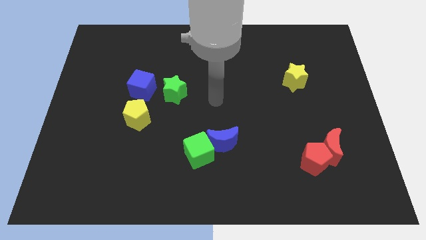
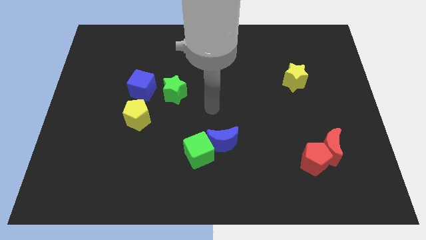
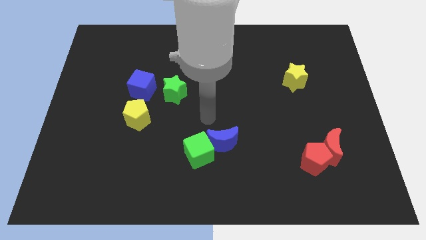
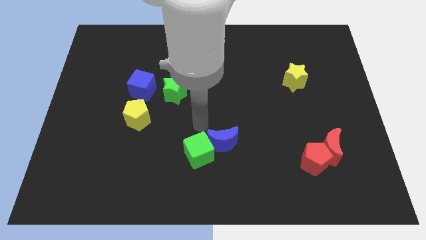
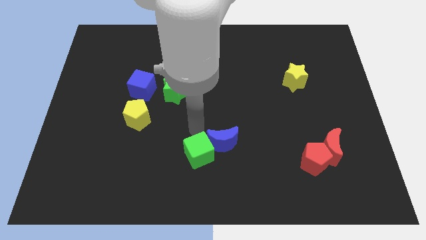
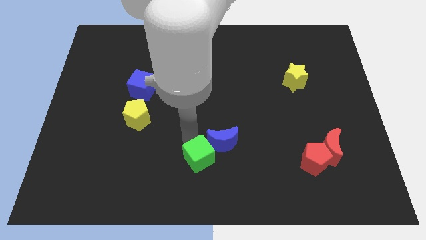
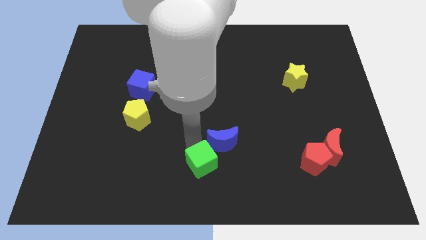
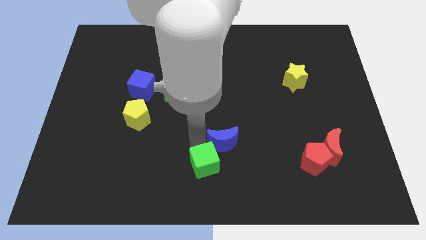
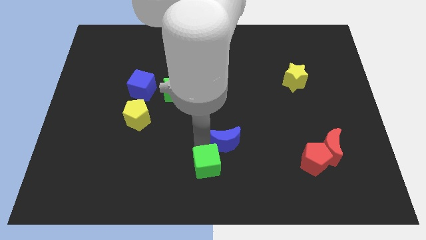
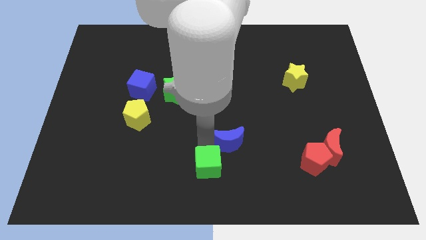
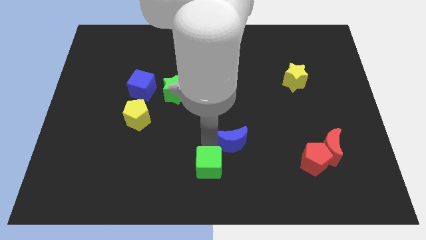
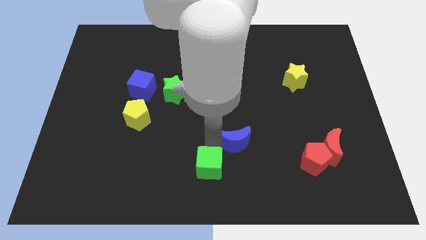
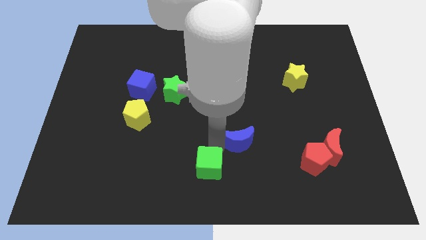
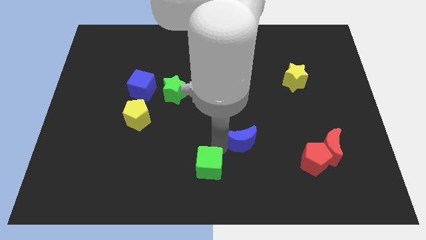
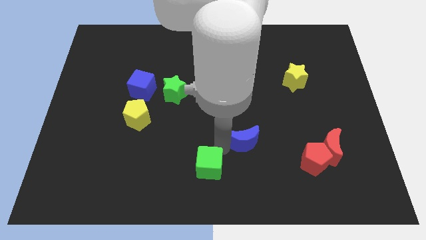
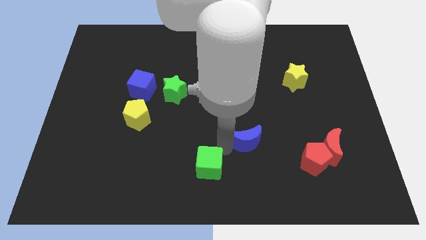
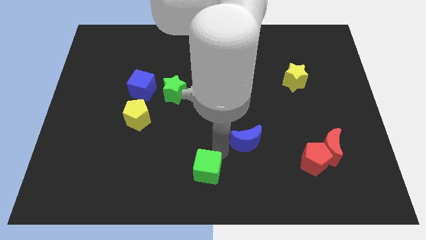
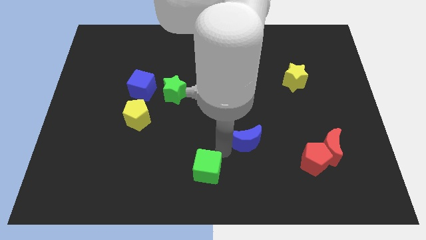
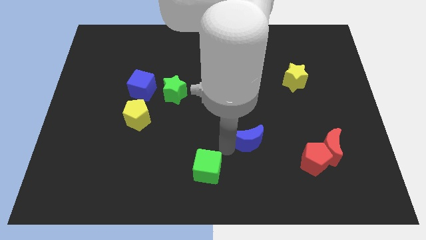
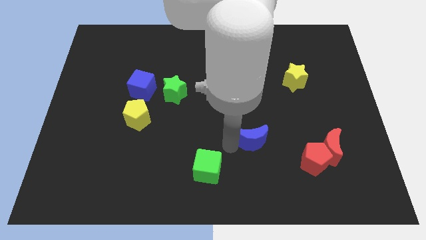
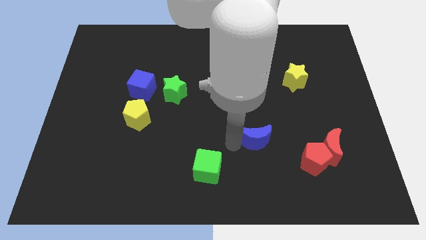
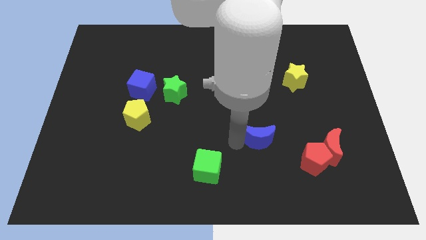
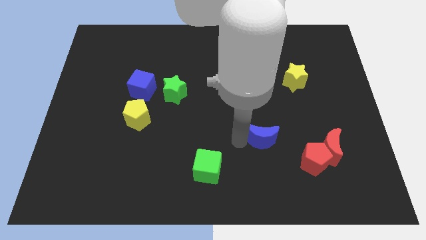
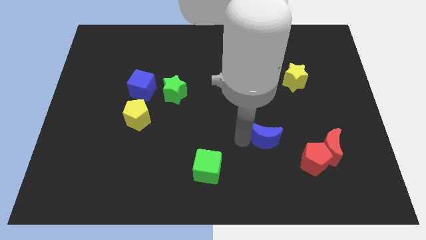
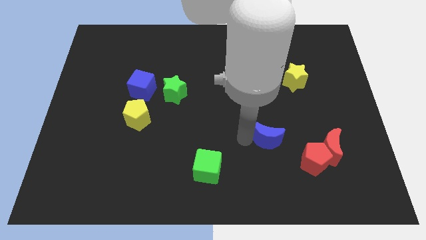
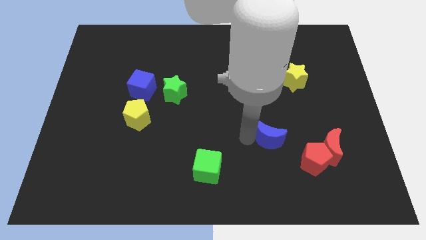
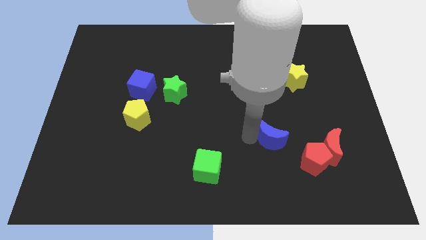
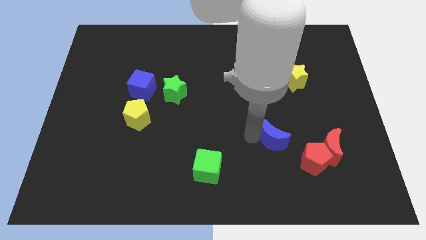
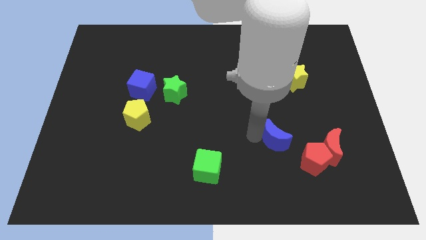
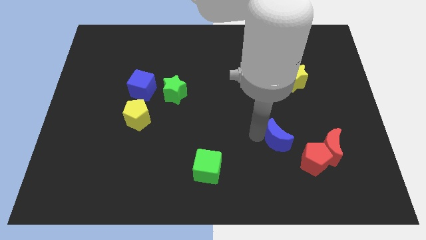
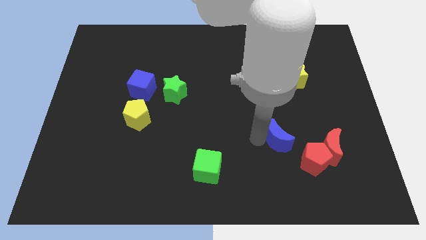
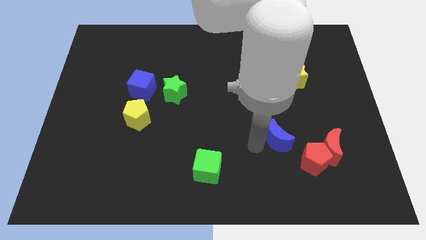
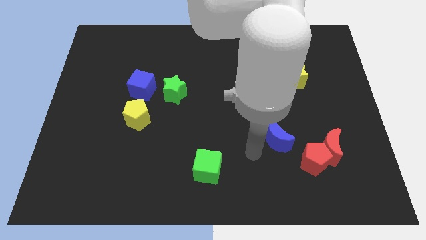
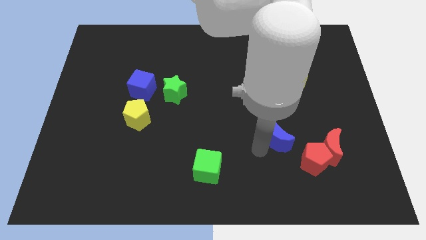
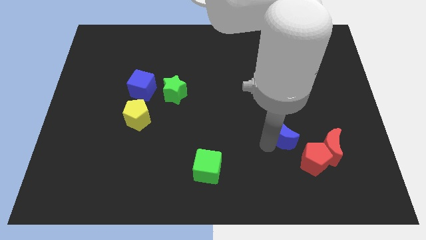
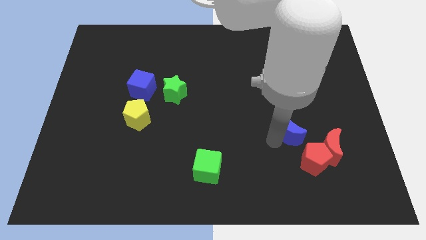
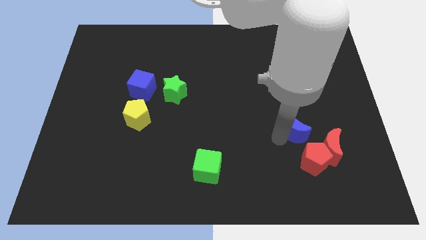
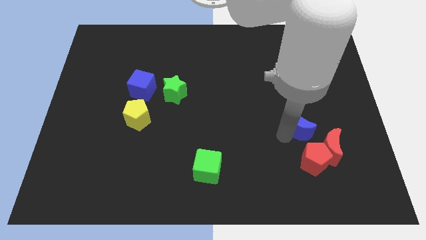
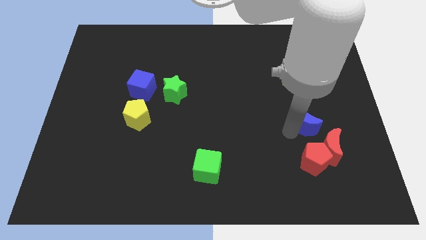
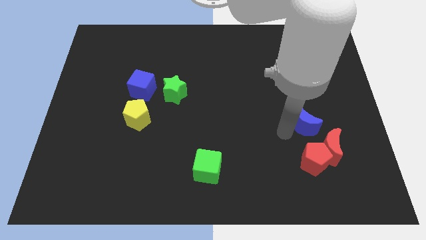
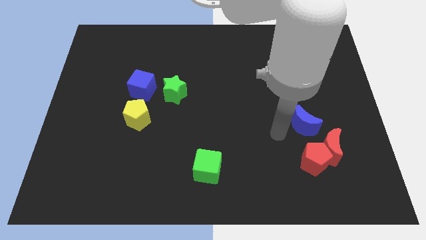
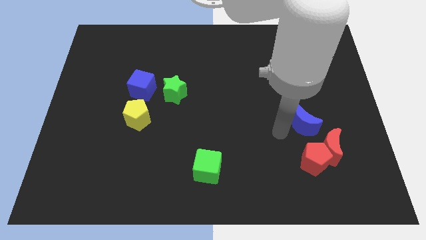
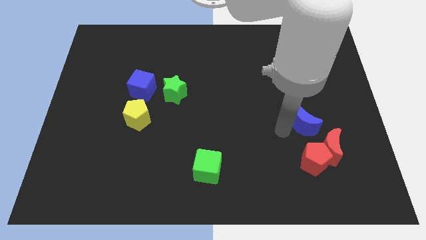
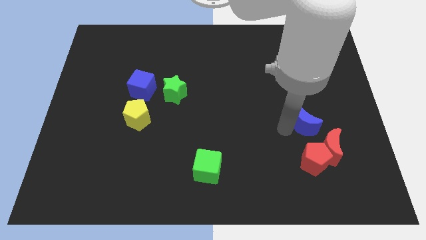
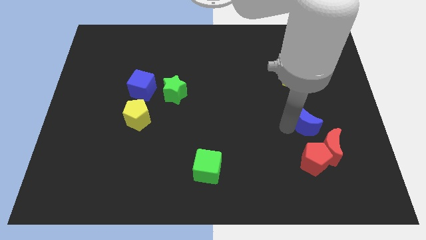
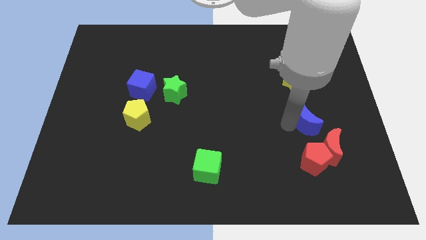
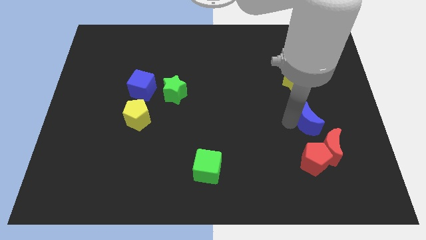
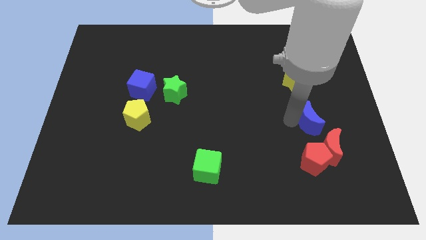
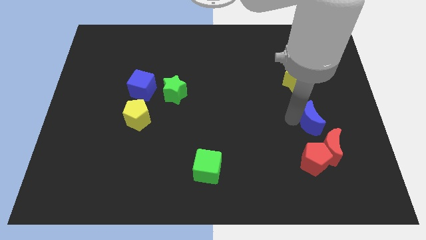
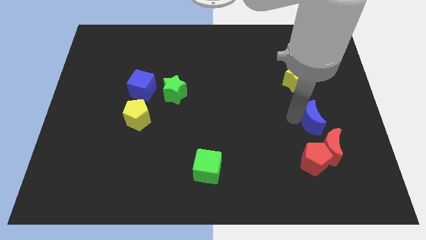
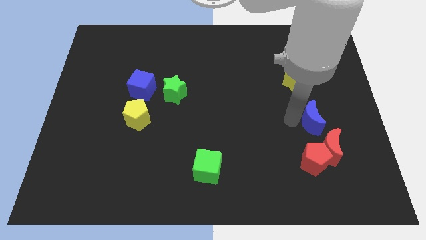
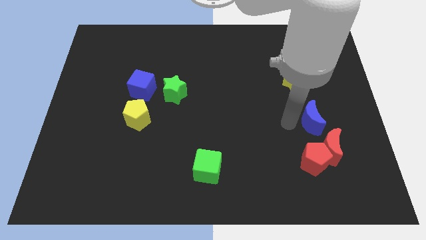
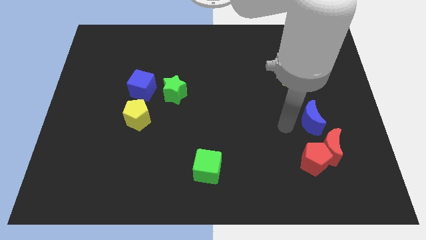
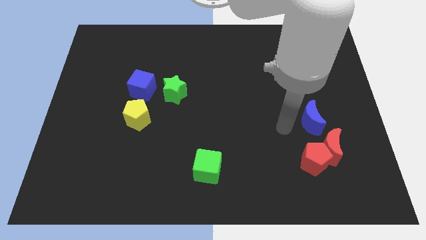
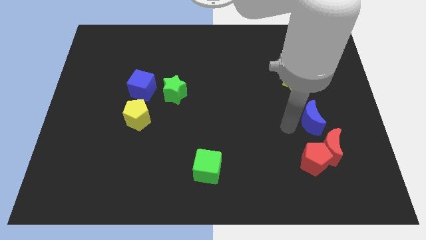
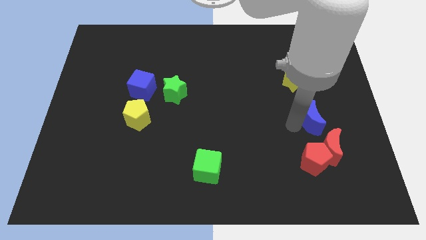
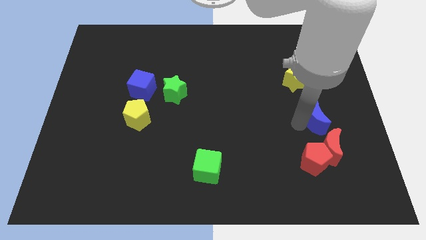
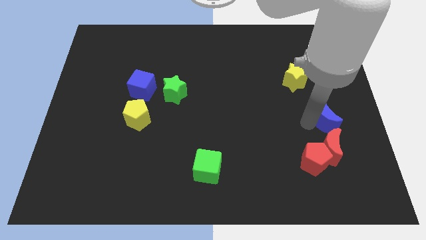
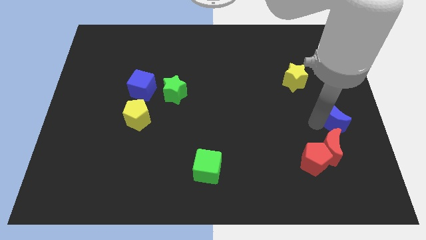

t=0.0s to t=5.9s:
put the blue moon to the right side of the board
